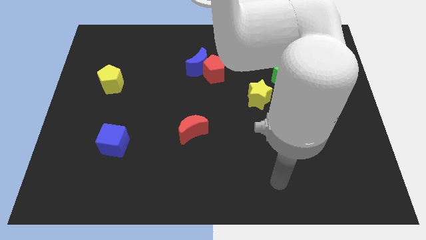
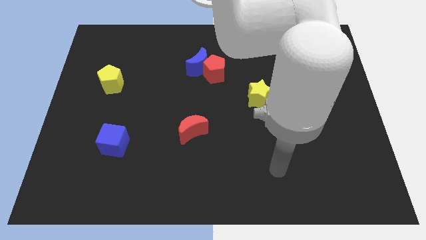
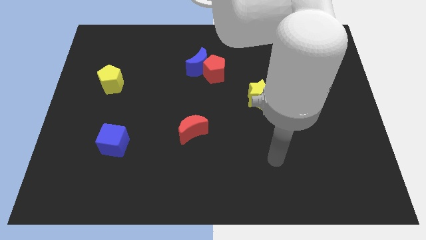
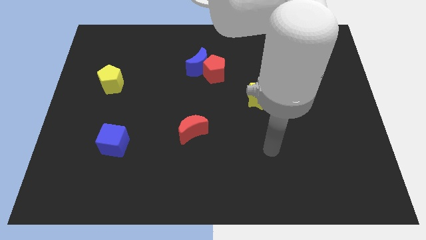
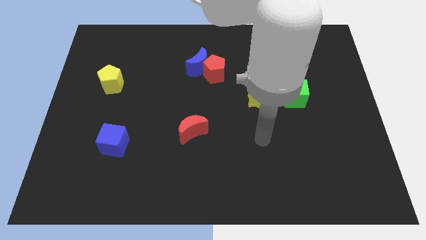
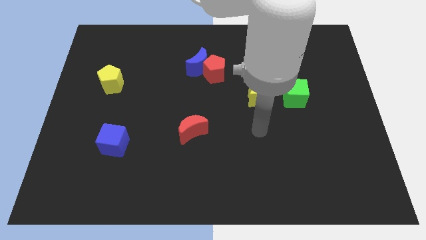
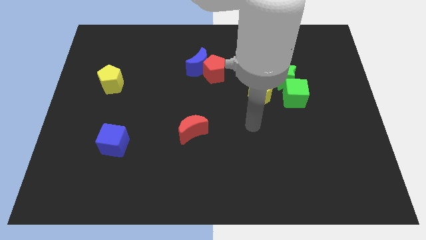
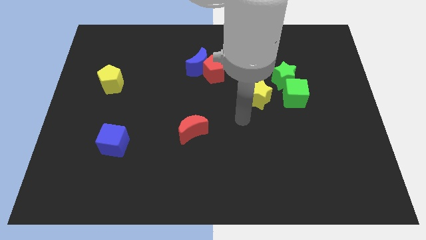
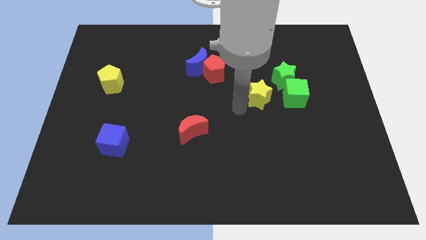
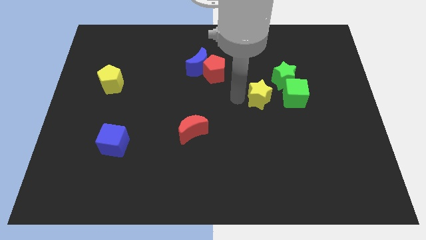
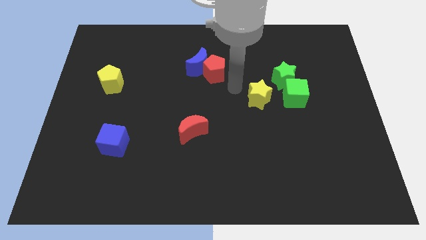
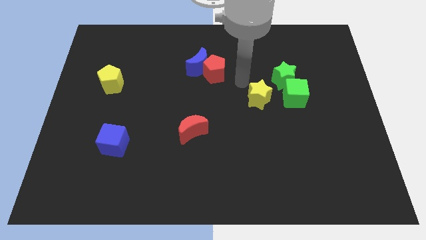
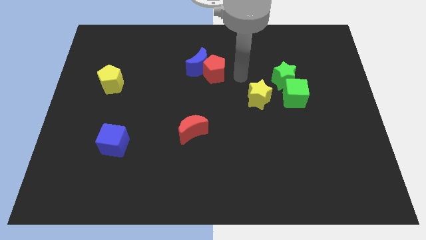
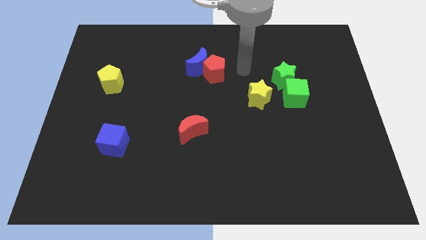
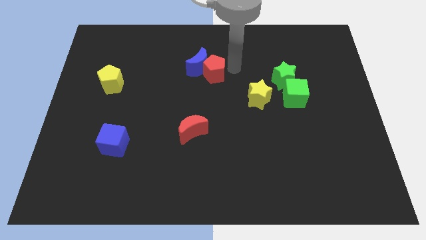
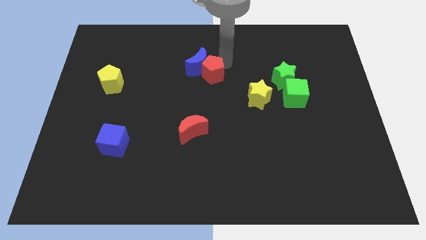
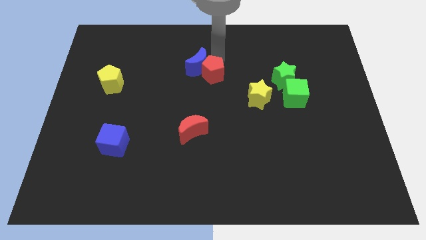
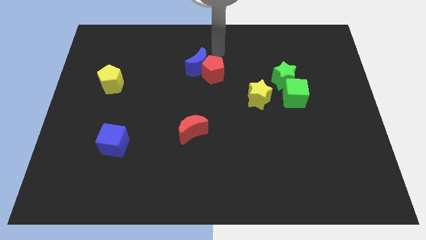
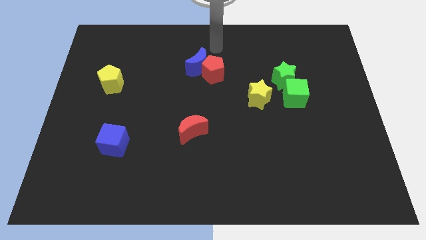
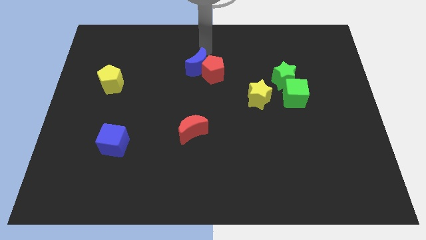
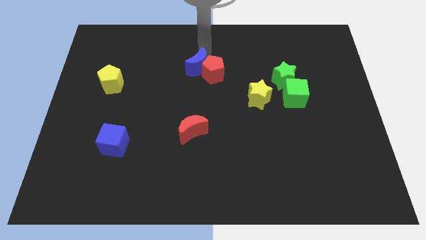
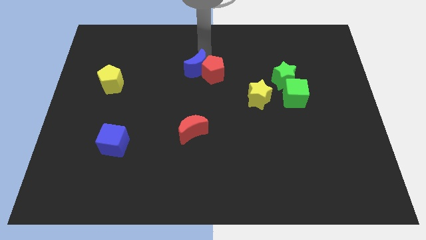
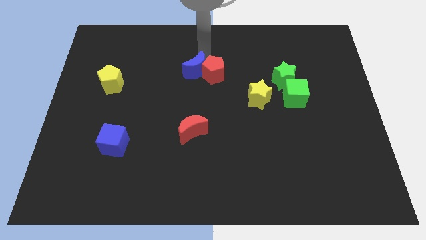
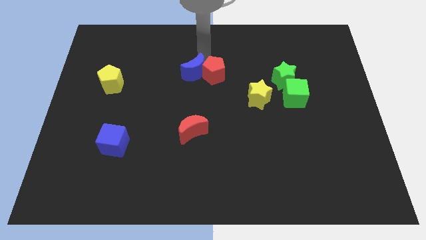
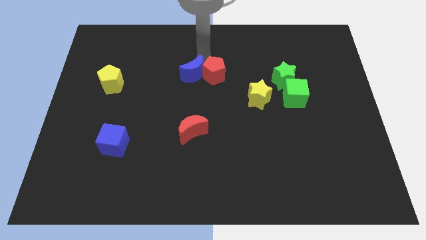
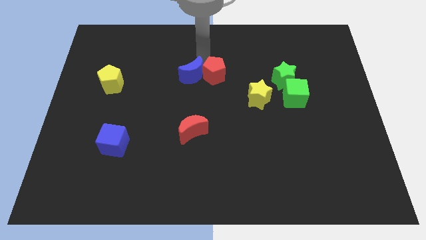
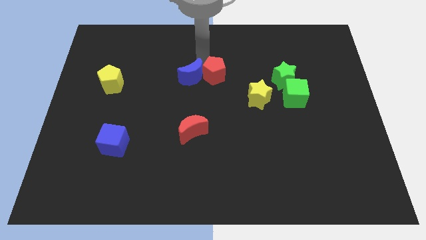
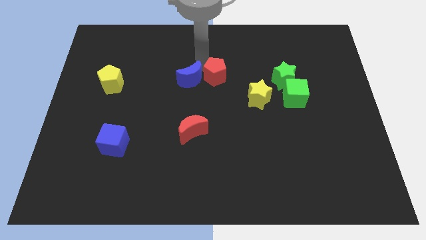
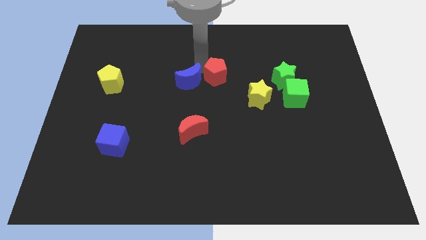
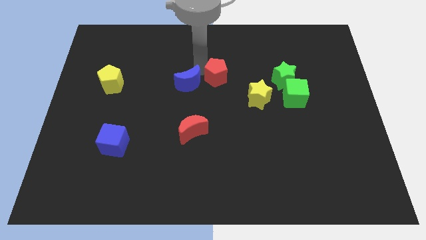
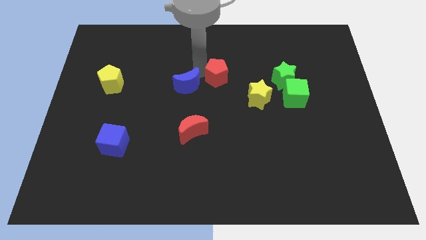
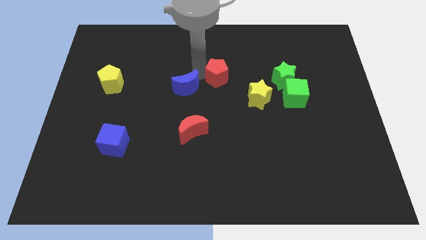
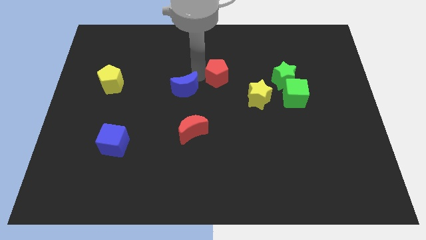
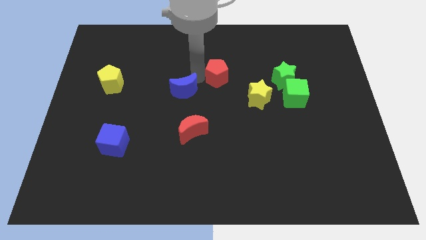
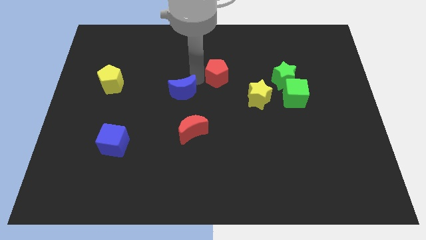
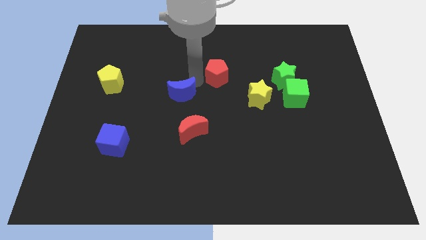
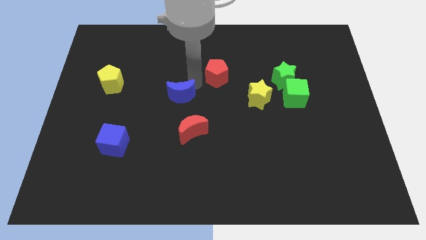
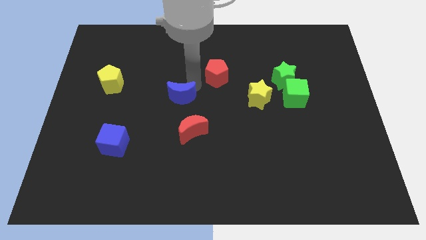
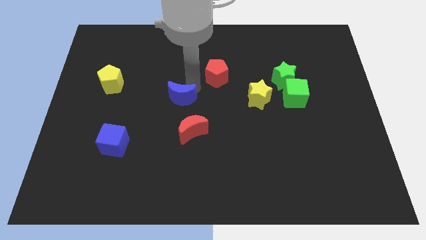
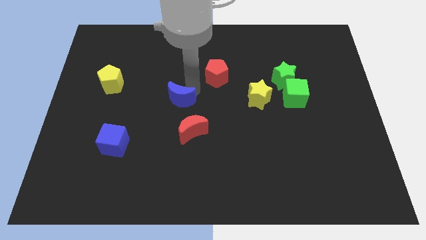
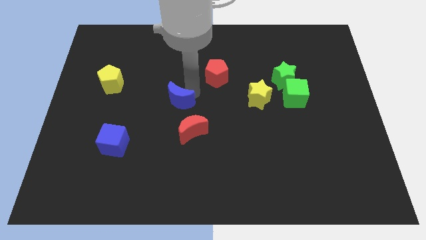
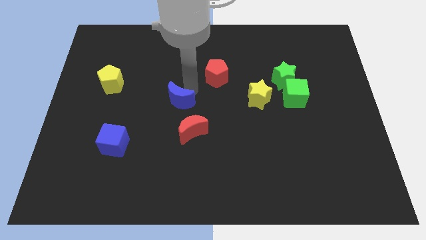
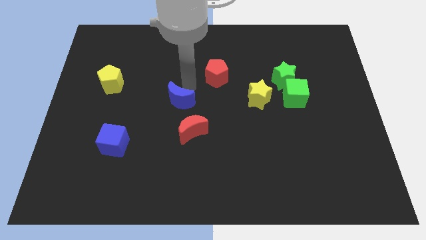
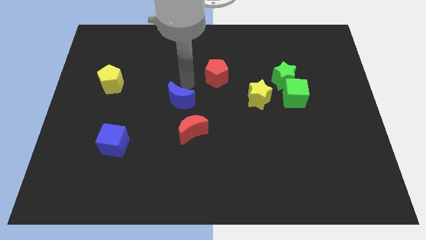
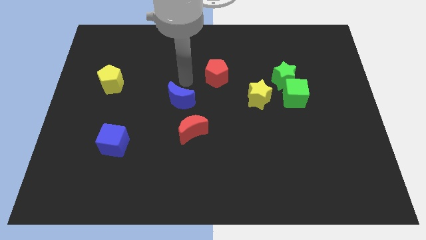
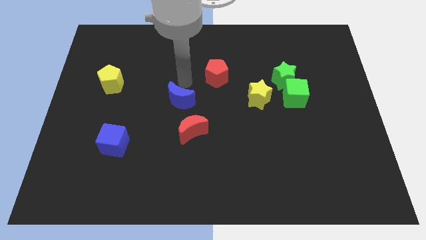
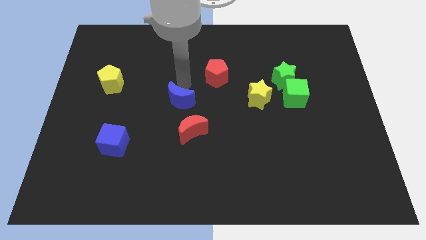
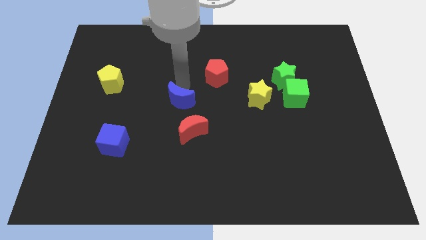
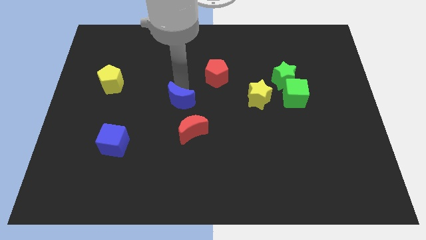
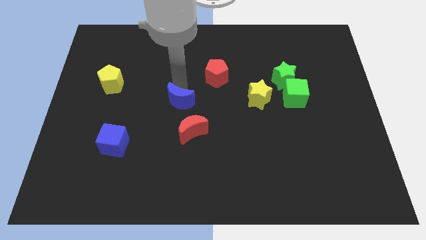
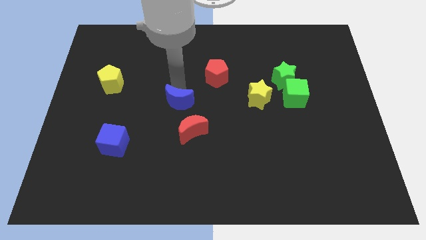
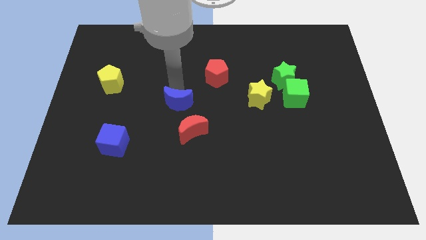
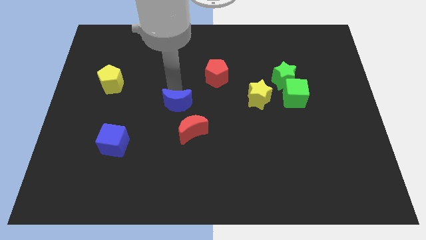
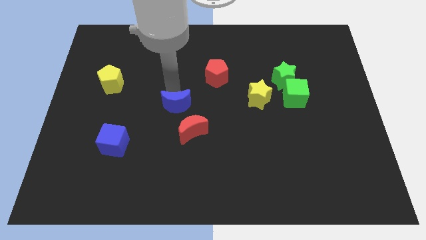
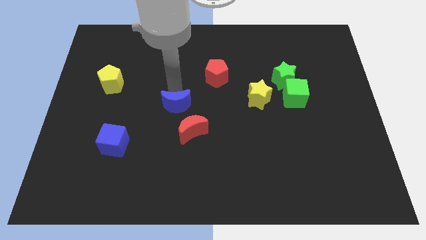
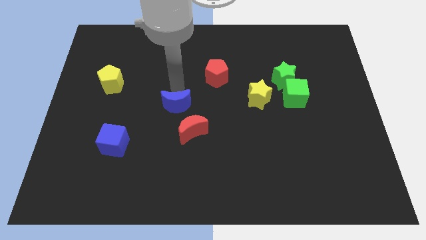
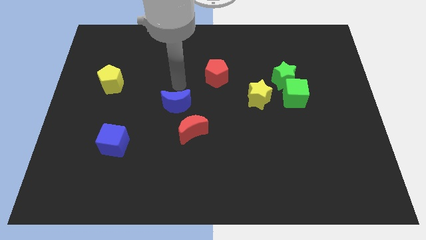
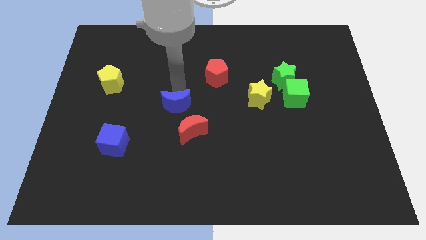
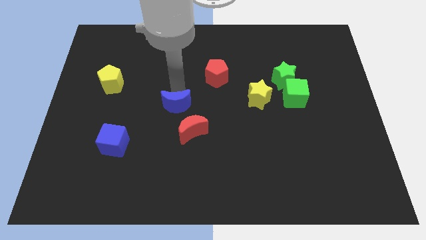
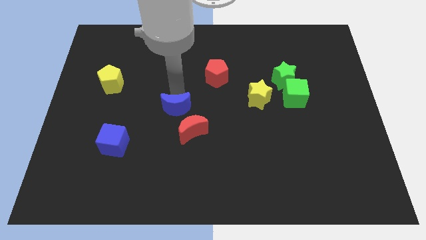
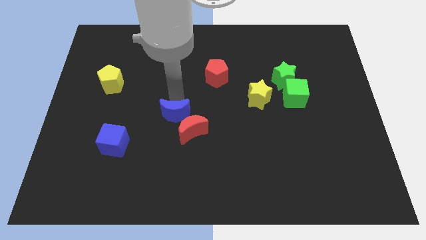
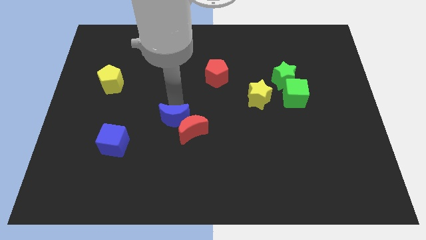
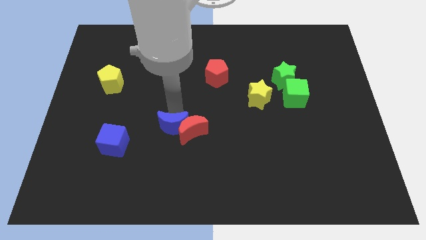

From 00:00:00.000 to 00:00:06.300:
slide the blue moon diagonally down and to the left of the red moon

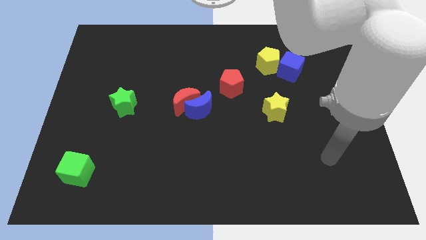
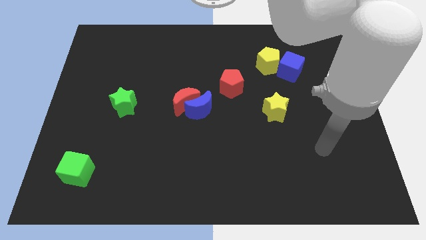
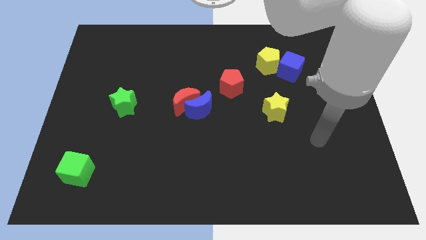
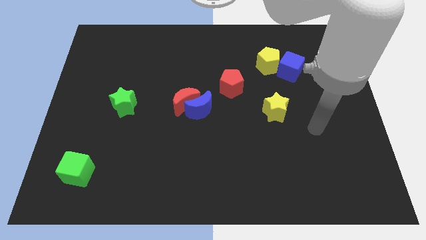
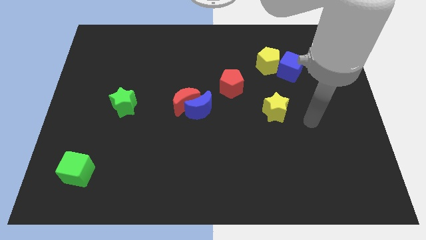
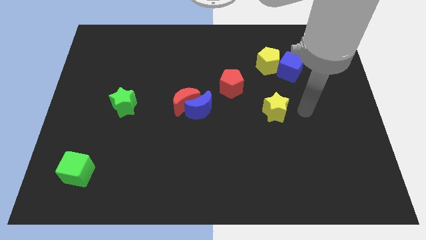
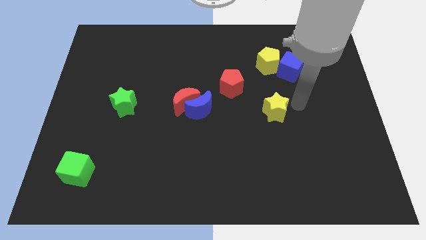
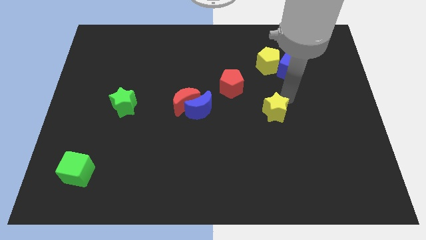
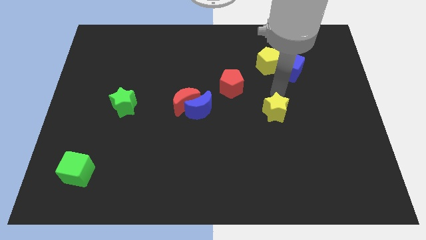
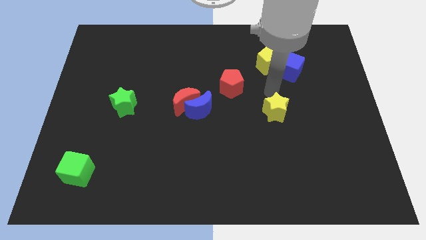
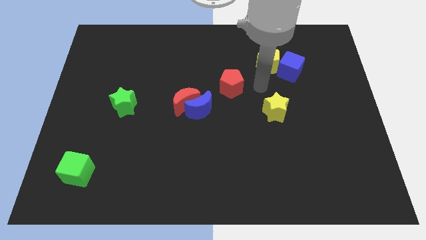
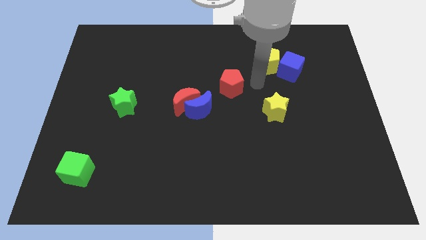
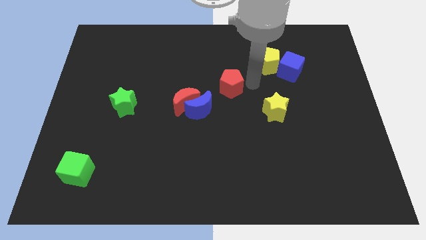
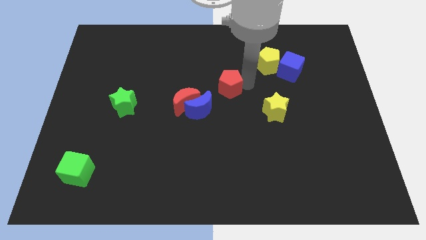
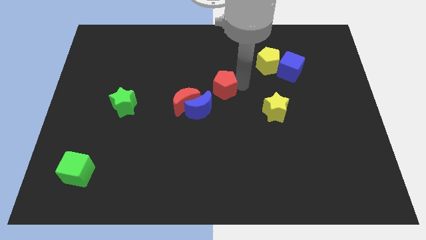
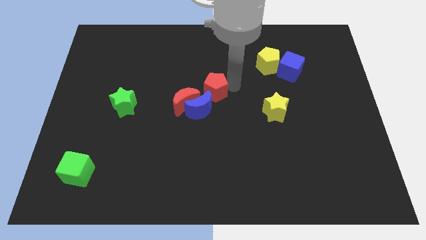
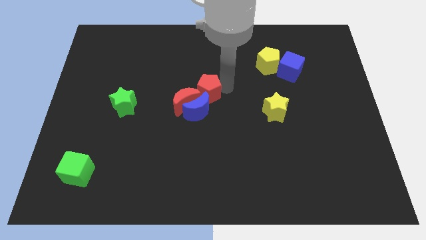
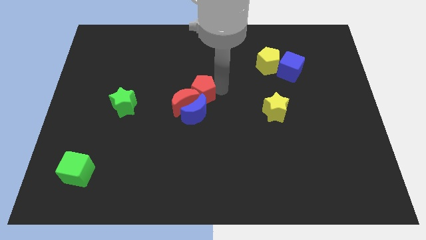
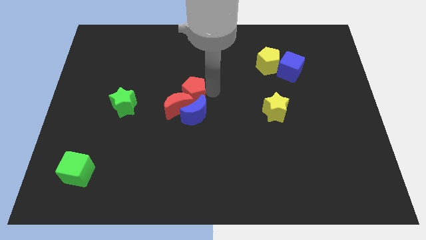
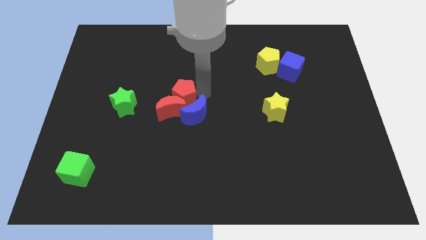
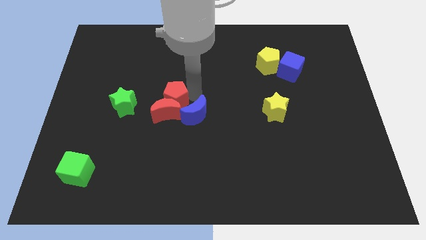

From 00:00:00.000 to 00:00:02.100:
move the red pentagon to the top left side of the red moon
